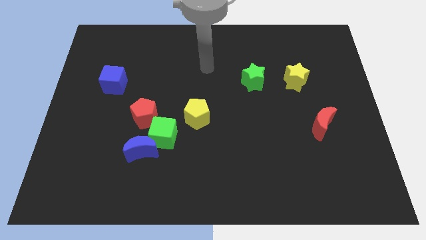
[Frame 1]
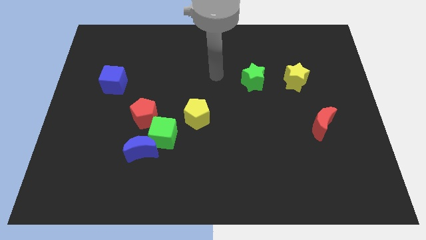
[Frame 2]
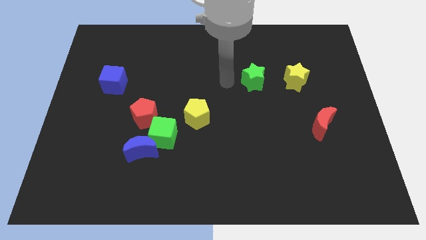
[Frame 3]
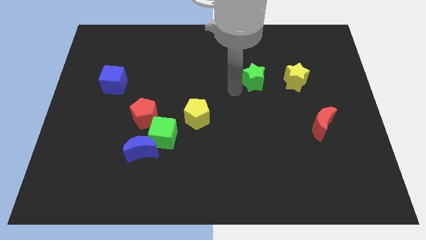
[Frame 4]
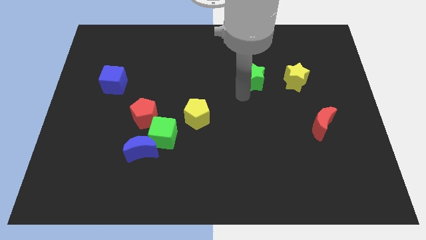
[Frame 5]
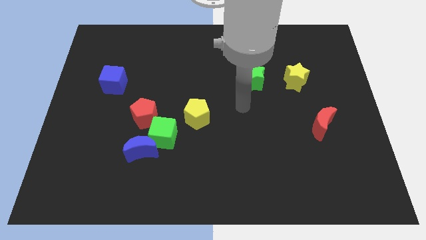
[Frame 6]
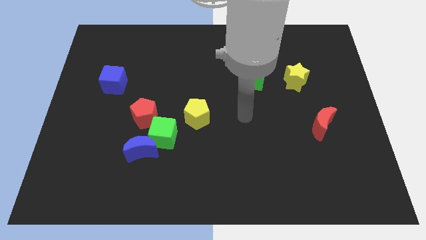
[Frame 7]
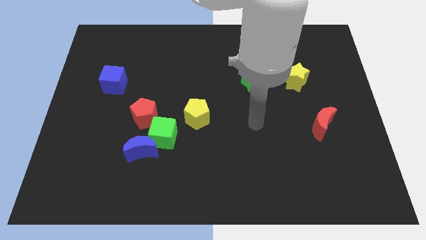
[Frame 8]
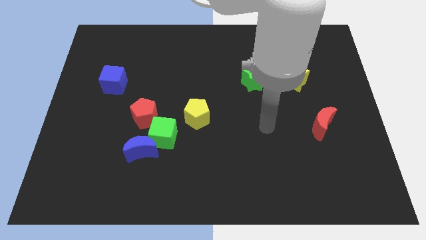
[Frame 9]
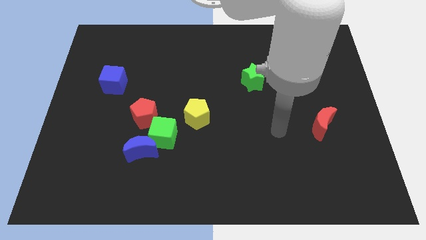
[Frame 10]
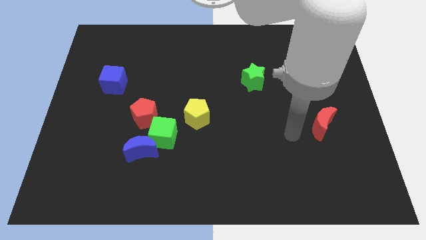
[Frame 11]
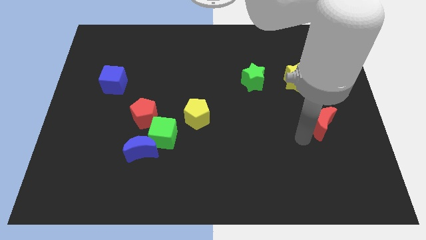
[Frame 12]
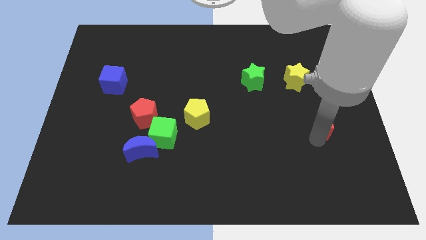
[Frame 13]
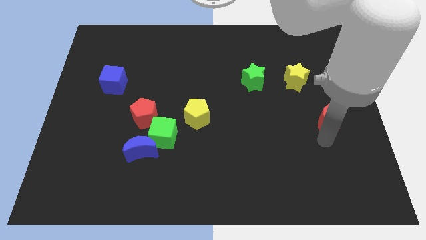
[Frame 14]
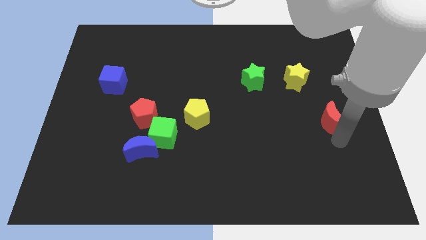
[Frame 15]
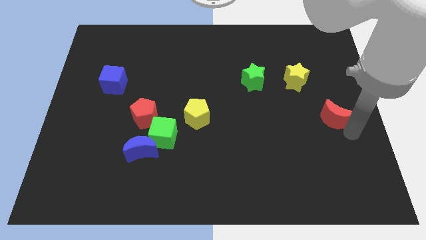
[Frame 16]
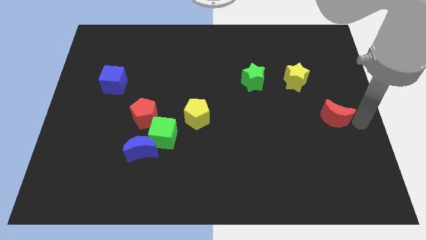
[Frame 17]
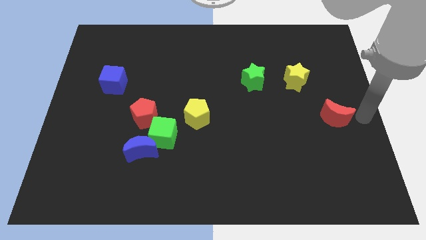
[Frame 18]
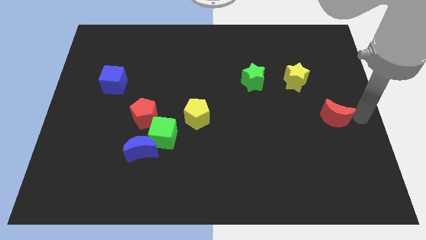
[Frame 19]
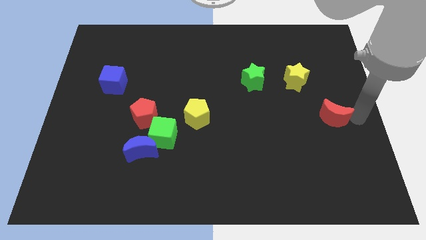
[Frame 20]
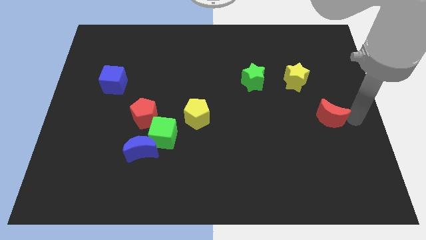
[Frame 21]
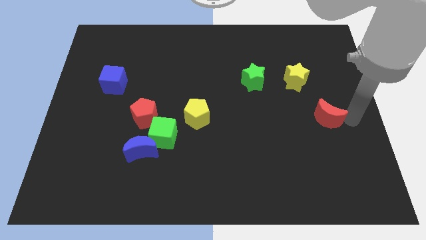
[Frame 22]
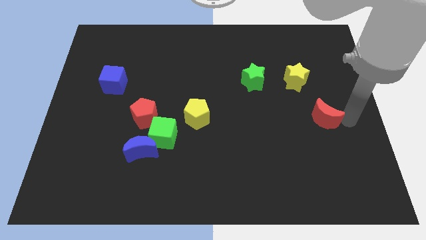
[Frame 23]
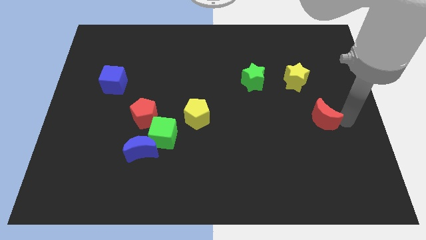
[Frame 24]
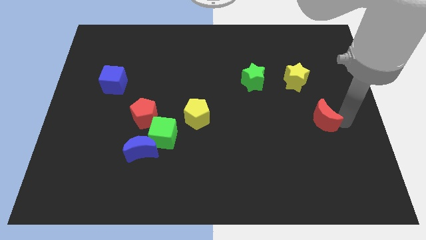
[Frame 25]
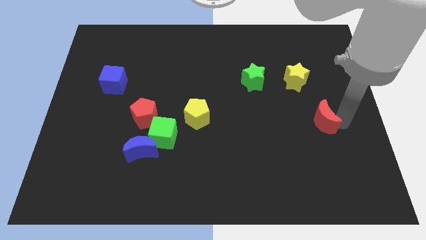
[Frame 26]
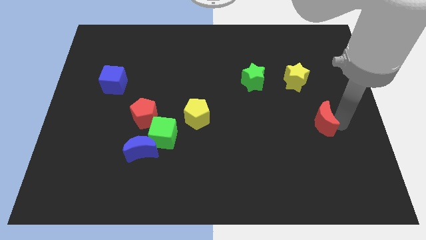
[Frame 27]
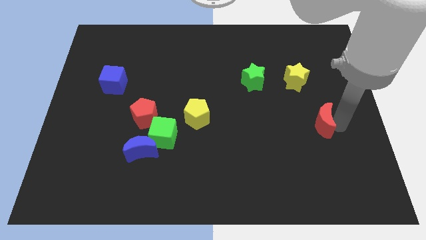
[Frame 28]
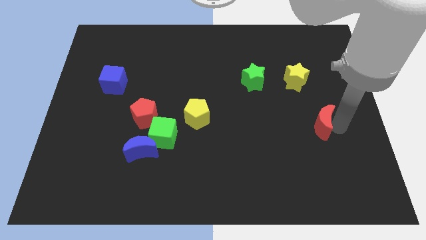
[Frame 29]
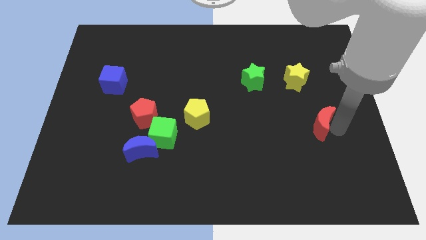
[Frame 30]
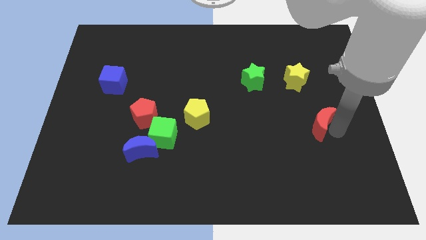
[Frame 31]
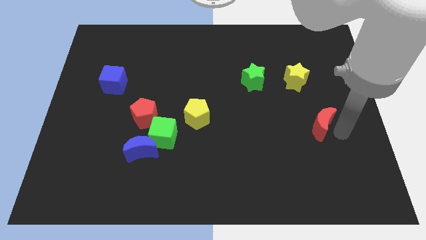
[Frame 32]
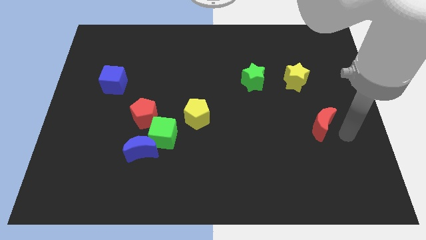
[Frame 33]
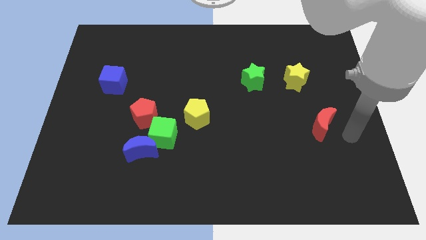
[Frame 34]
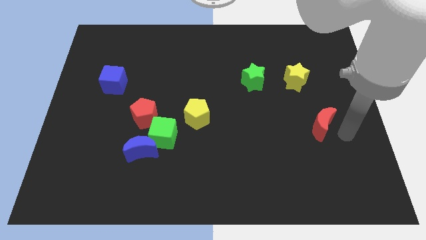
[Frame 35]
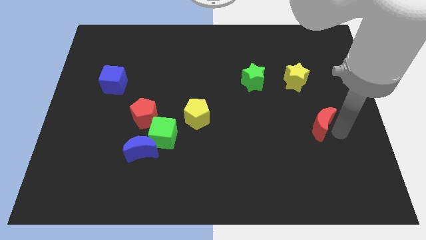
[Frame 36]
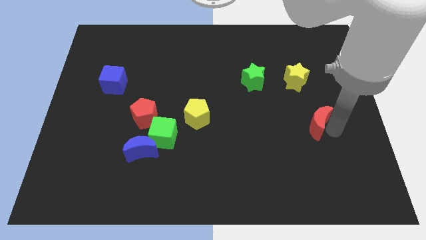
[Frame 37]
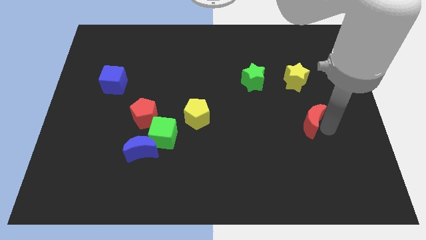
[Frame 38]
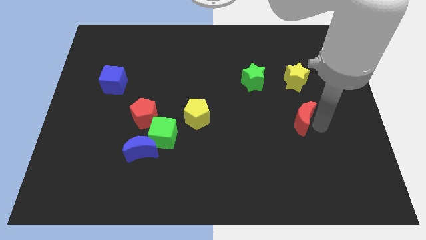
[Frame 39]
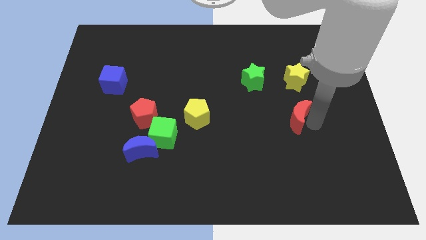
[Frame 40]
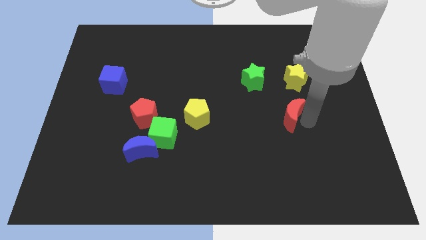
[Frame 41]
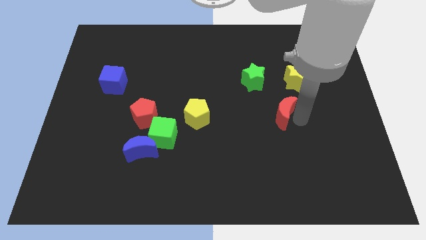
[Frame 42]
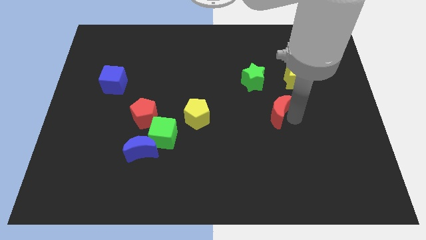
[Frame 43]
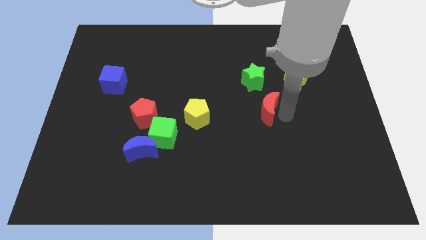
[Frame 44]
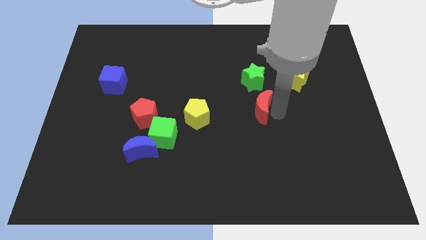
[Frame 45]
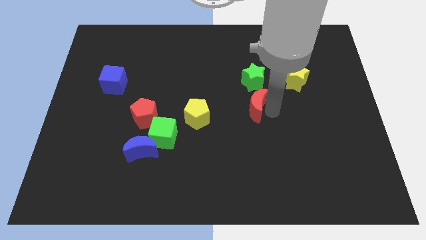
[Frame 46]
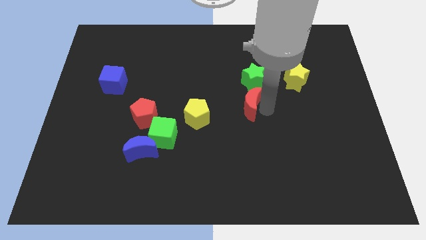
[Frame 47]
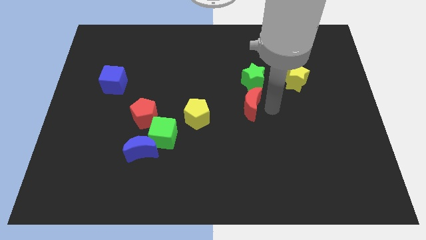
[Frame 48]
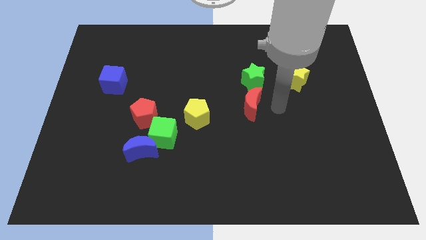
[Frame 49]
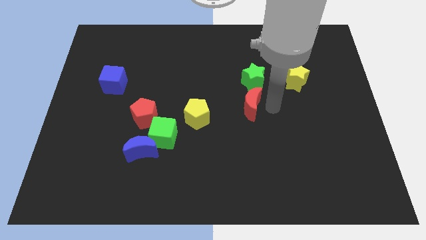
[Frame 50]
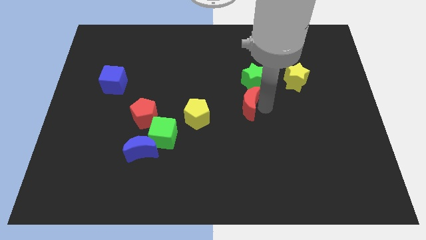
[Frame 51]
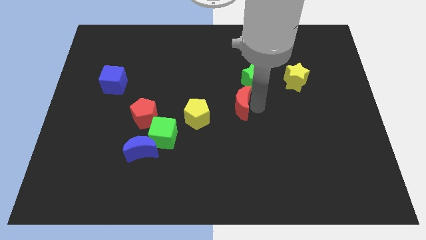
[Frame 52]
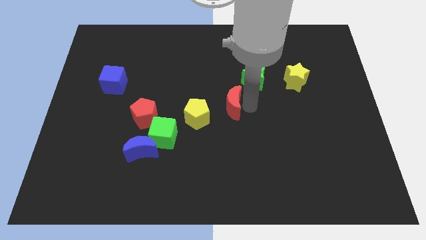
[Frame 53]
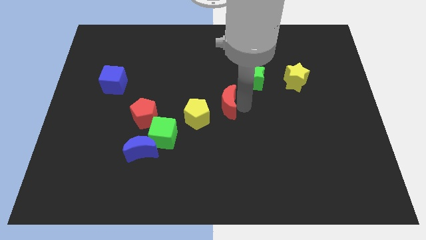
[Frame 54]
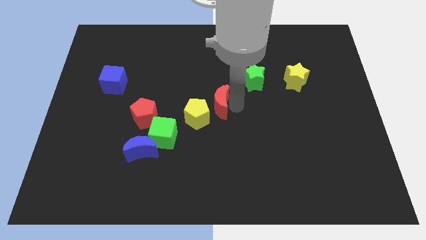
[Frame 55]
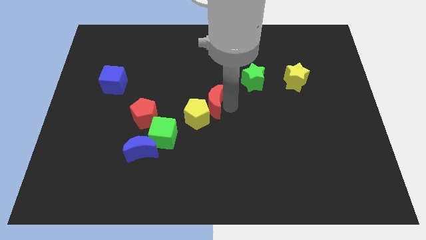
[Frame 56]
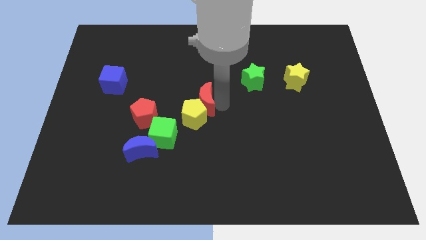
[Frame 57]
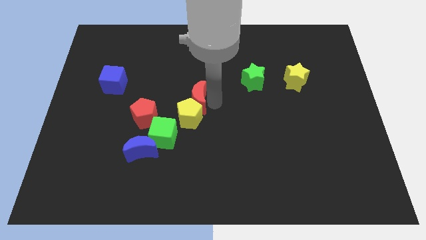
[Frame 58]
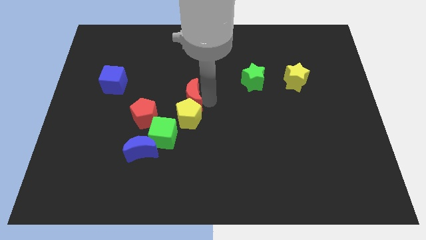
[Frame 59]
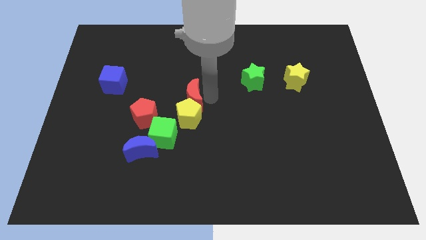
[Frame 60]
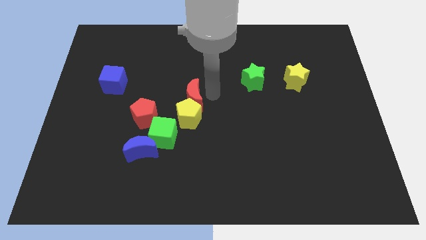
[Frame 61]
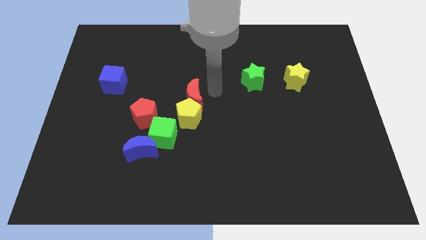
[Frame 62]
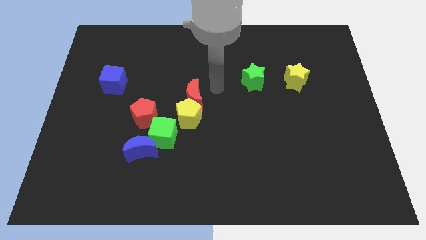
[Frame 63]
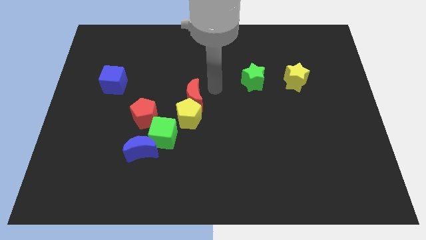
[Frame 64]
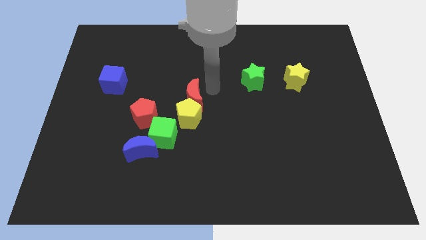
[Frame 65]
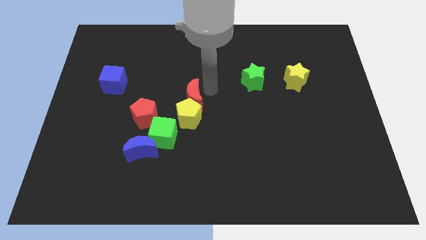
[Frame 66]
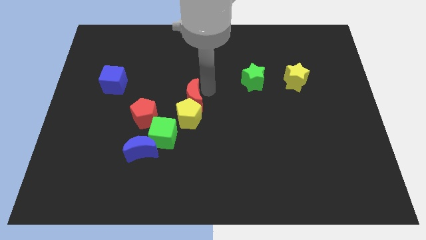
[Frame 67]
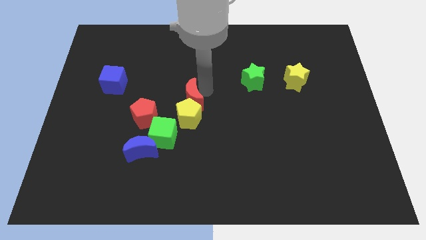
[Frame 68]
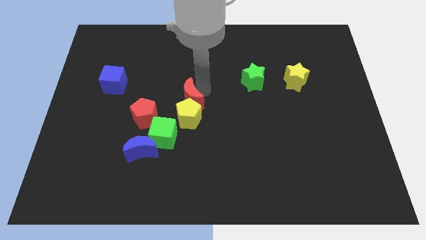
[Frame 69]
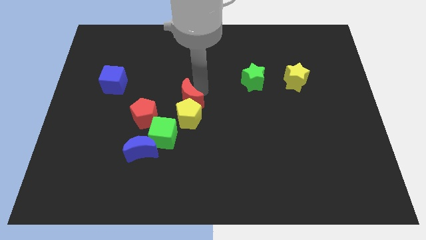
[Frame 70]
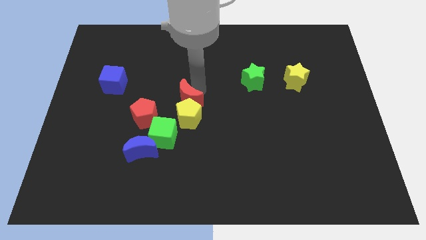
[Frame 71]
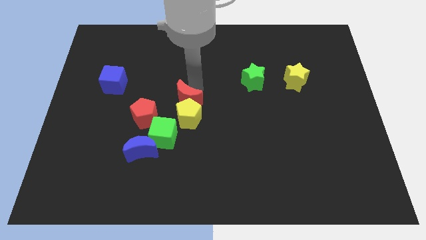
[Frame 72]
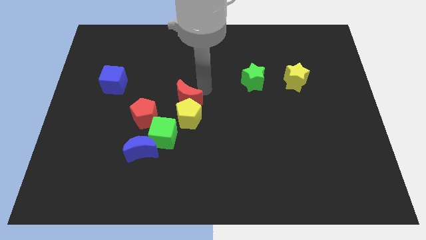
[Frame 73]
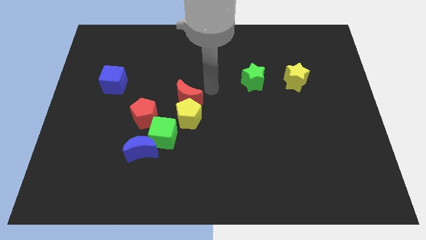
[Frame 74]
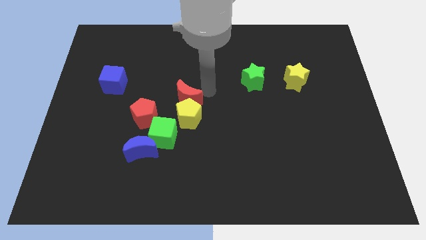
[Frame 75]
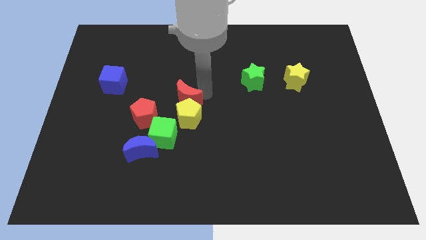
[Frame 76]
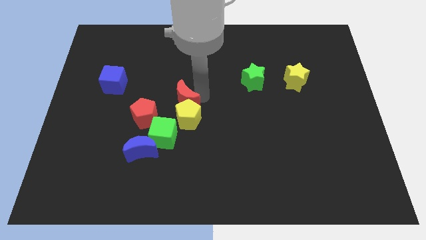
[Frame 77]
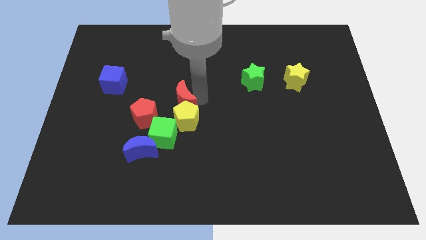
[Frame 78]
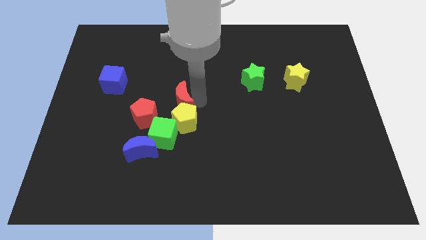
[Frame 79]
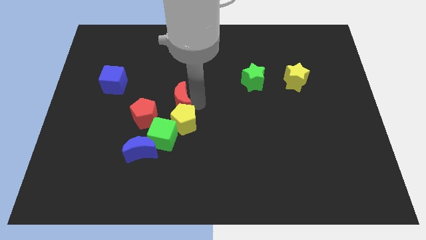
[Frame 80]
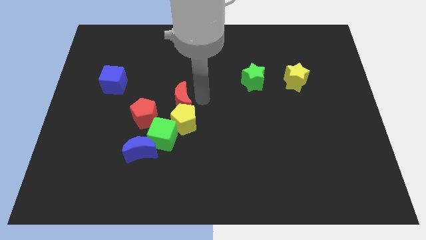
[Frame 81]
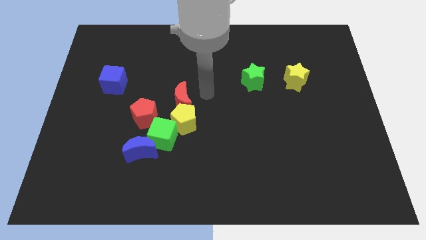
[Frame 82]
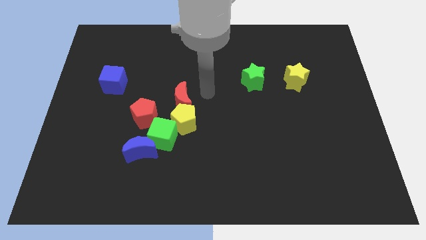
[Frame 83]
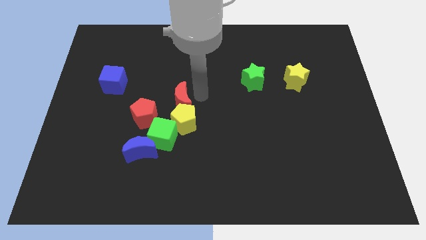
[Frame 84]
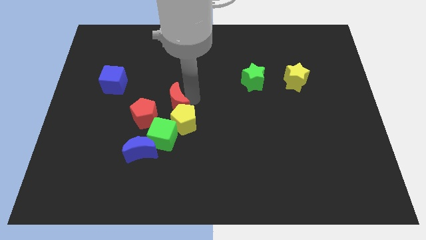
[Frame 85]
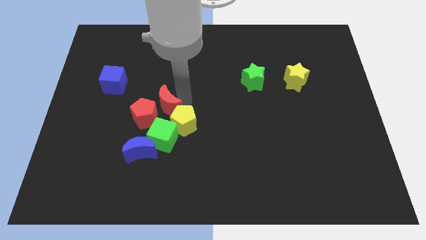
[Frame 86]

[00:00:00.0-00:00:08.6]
move the red moon close to the red pentagon
